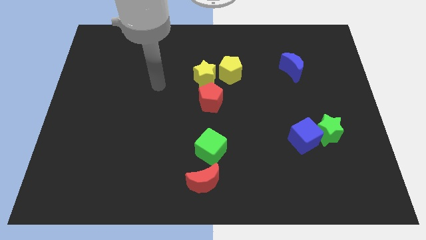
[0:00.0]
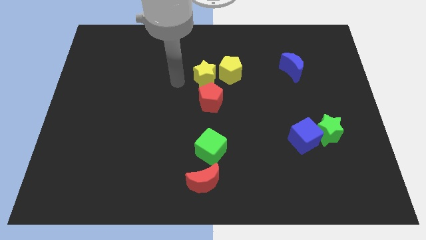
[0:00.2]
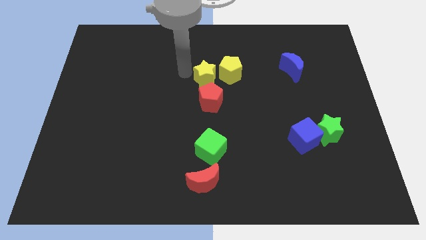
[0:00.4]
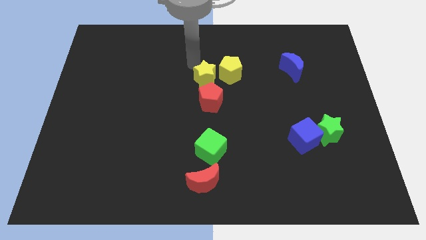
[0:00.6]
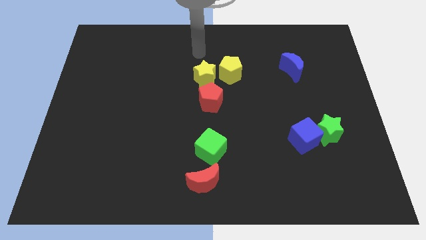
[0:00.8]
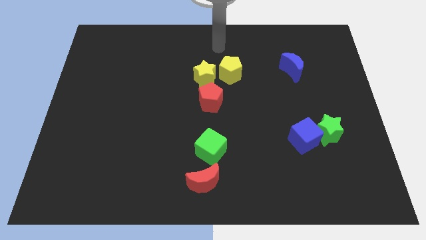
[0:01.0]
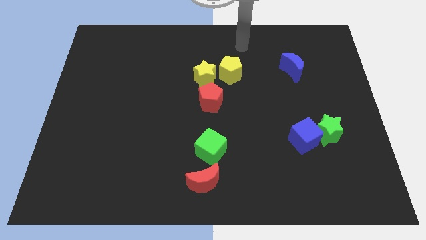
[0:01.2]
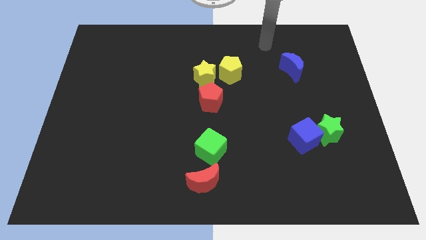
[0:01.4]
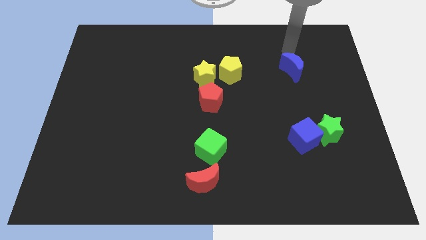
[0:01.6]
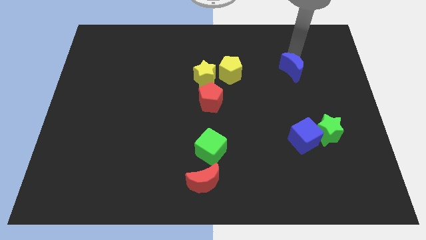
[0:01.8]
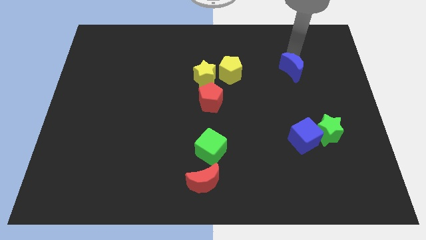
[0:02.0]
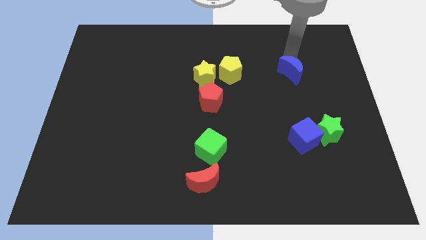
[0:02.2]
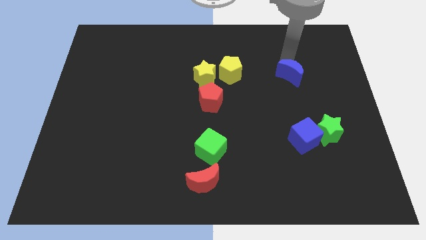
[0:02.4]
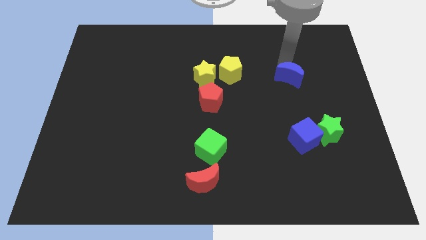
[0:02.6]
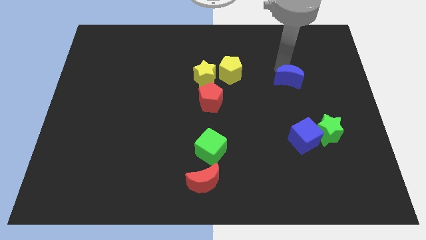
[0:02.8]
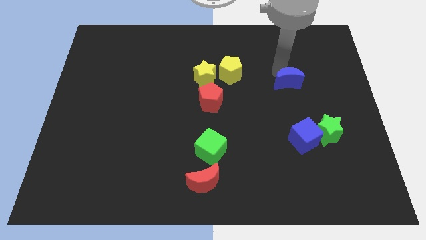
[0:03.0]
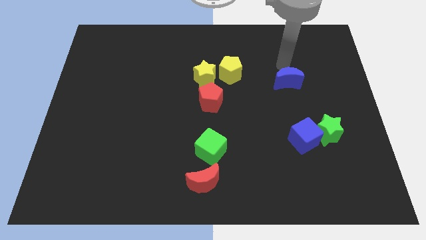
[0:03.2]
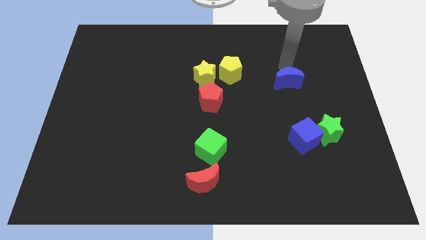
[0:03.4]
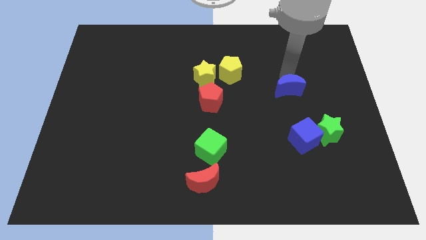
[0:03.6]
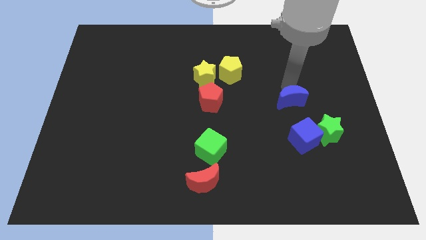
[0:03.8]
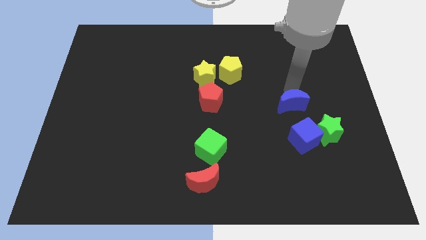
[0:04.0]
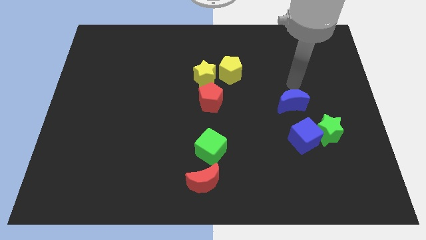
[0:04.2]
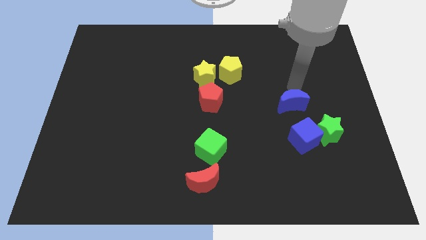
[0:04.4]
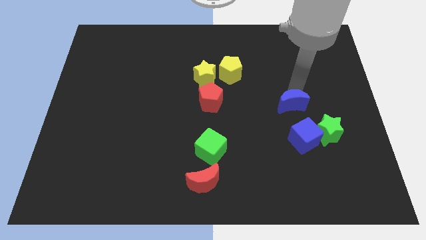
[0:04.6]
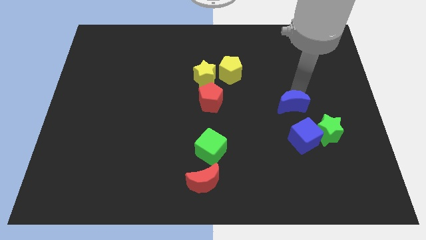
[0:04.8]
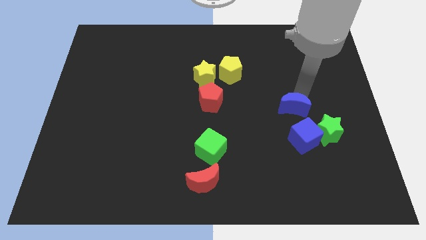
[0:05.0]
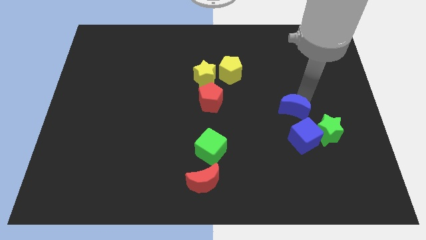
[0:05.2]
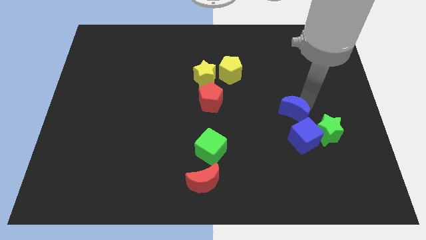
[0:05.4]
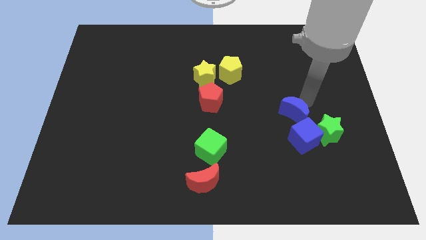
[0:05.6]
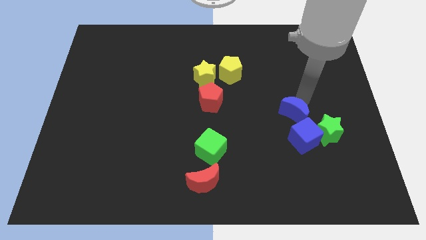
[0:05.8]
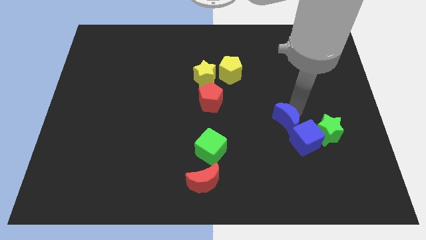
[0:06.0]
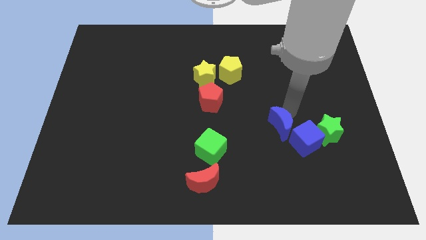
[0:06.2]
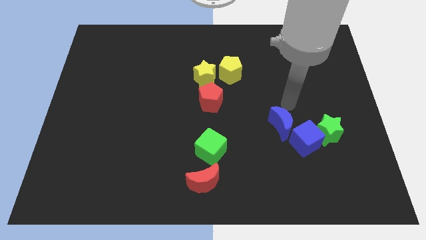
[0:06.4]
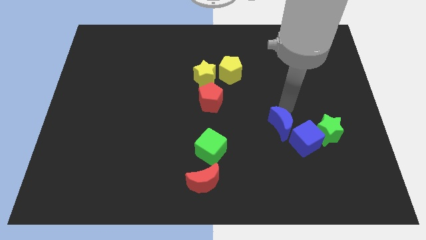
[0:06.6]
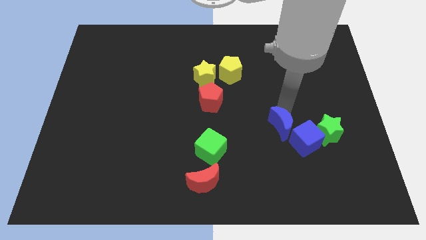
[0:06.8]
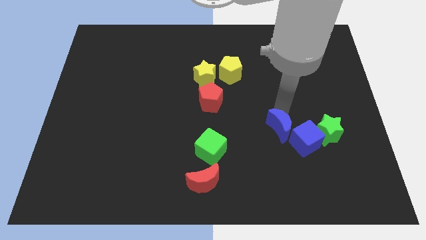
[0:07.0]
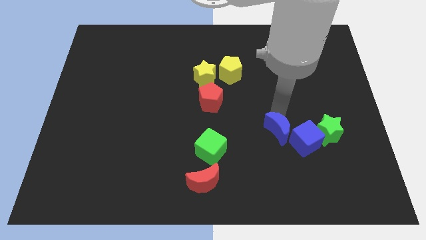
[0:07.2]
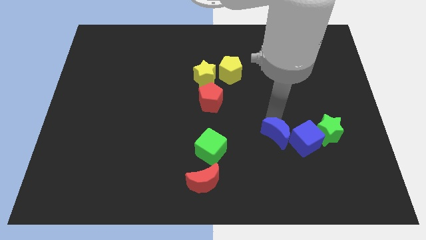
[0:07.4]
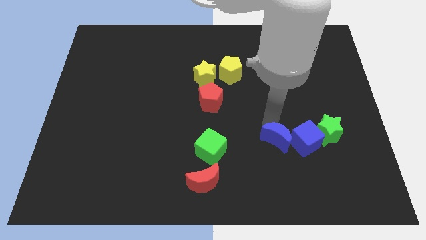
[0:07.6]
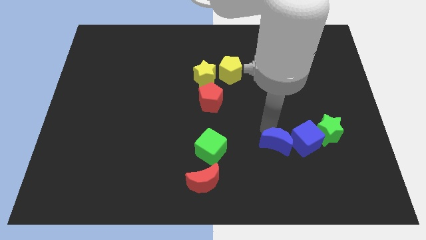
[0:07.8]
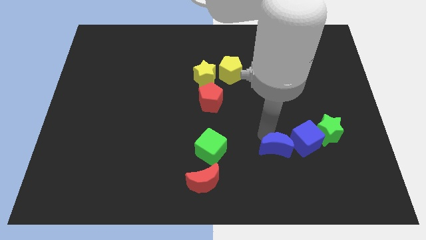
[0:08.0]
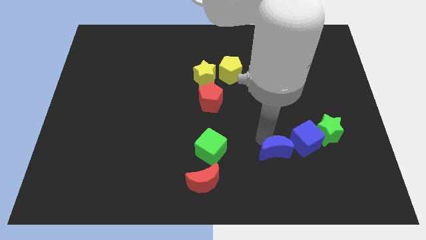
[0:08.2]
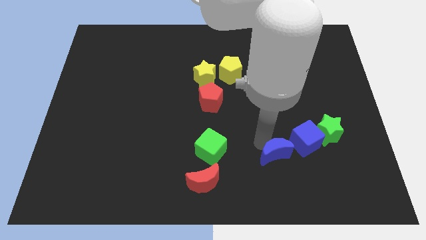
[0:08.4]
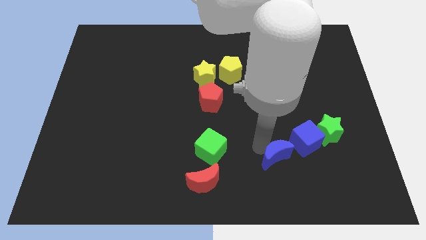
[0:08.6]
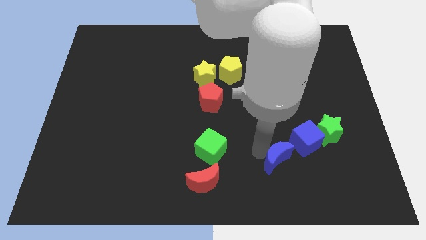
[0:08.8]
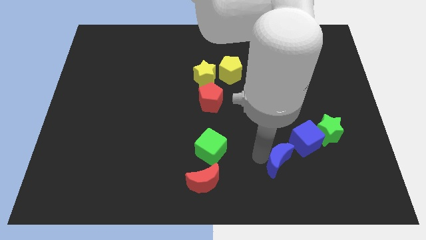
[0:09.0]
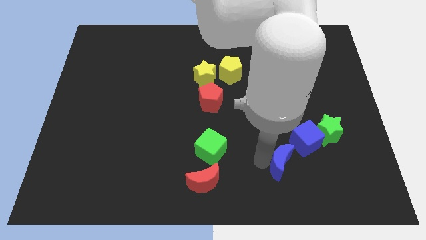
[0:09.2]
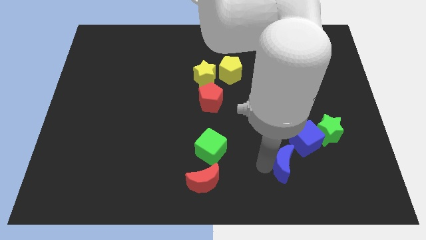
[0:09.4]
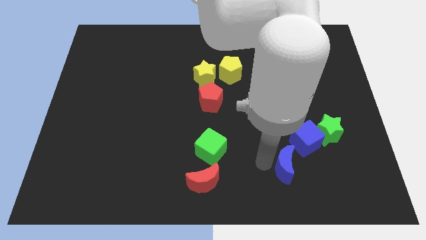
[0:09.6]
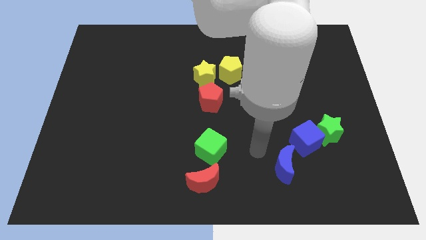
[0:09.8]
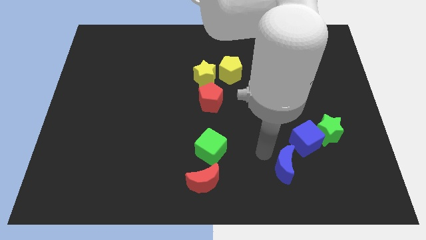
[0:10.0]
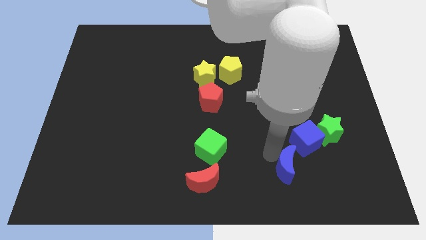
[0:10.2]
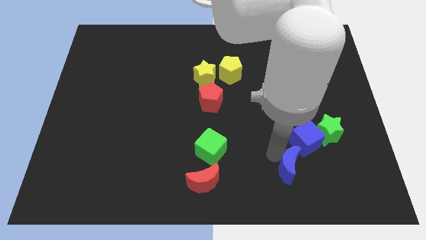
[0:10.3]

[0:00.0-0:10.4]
put the blue moon to the bottom of the blue cube

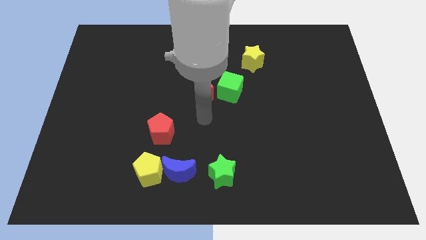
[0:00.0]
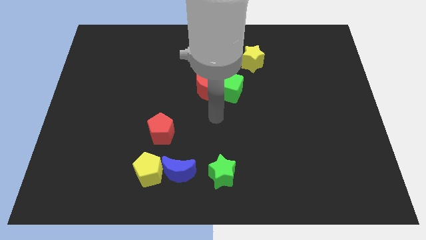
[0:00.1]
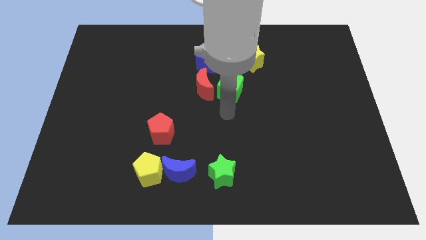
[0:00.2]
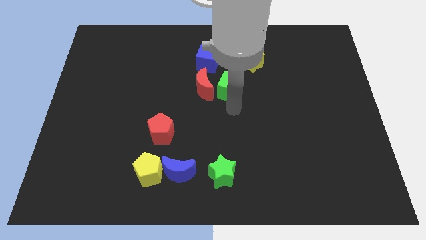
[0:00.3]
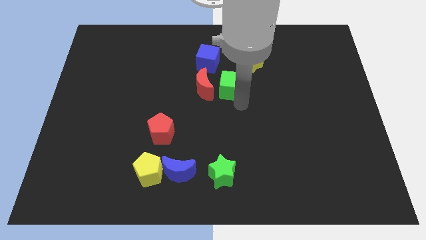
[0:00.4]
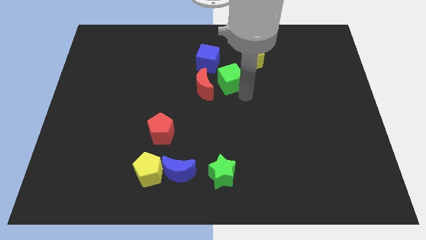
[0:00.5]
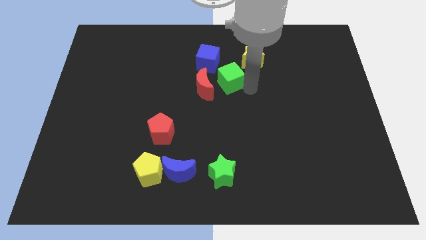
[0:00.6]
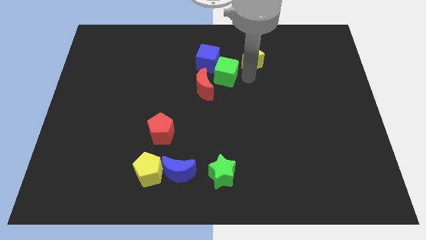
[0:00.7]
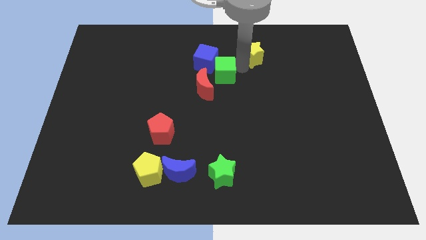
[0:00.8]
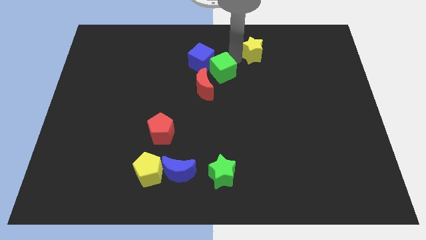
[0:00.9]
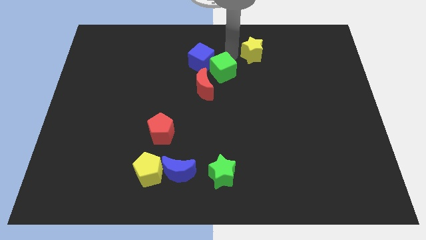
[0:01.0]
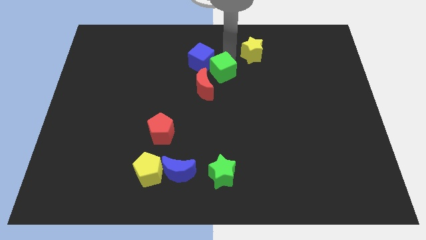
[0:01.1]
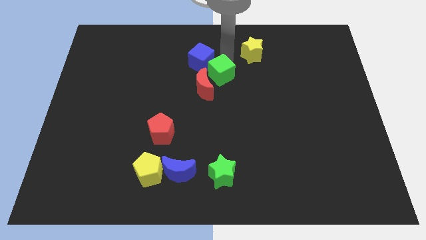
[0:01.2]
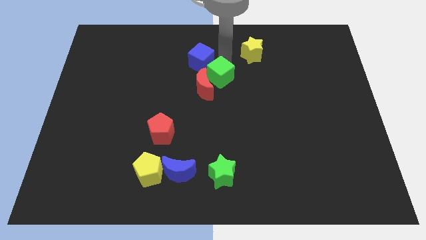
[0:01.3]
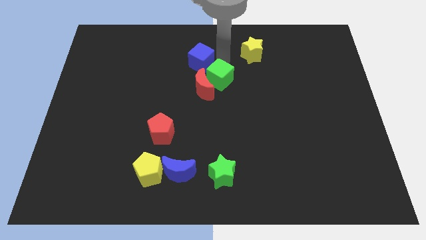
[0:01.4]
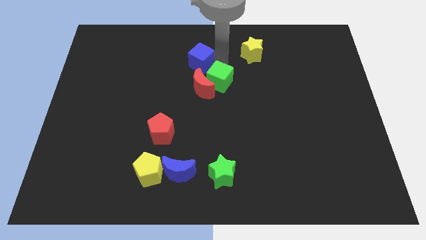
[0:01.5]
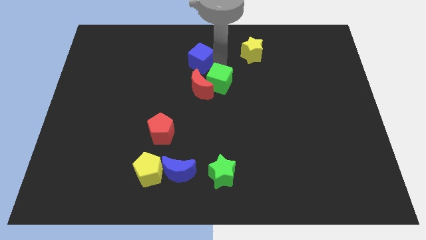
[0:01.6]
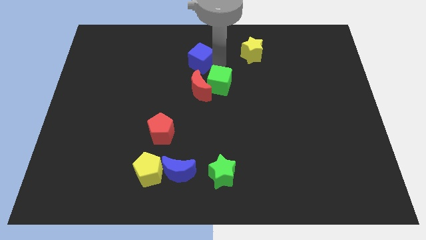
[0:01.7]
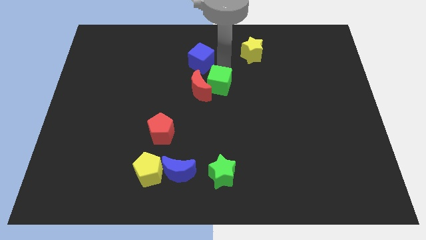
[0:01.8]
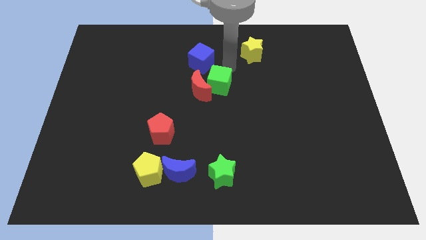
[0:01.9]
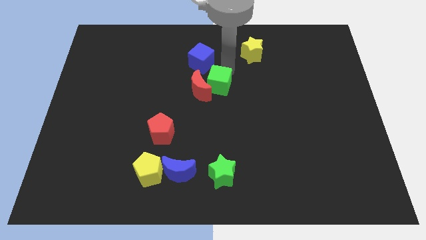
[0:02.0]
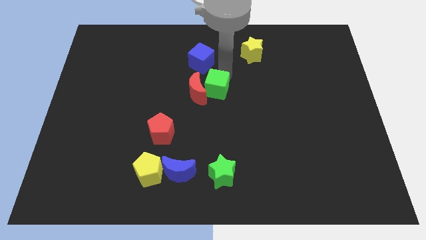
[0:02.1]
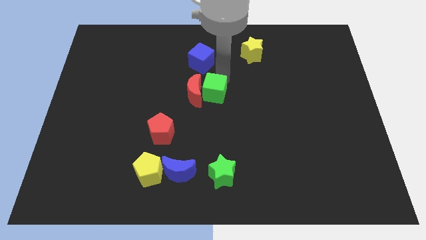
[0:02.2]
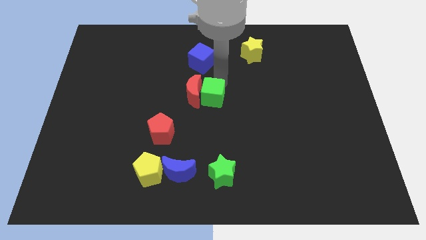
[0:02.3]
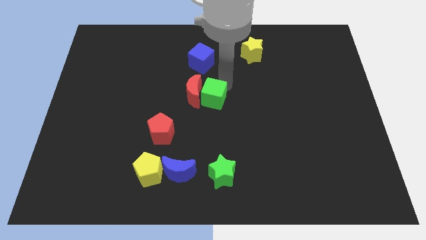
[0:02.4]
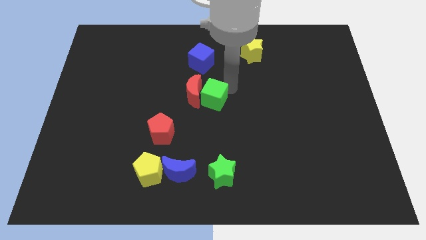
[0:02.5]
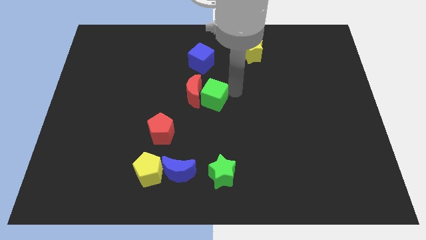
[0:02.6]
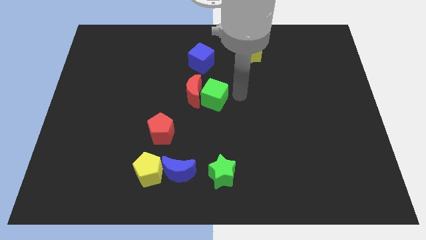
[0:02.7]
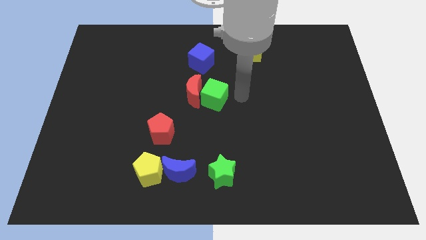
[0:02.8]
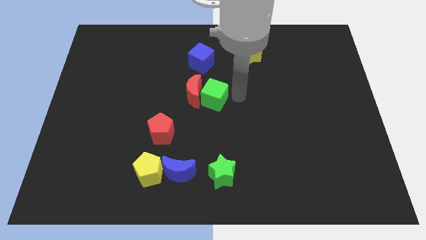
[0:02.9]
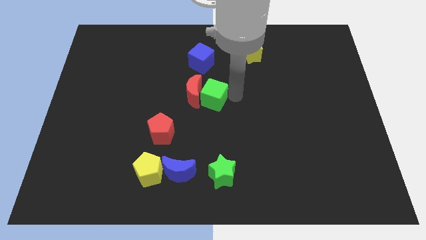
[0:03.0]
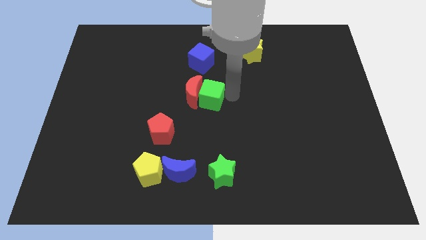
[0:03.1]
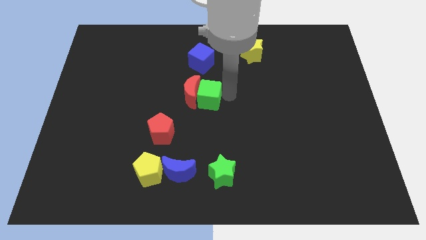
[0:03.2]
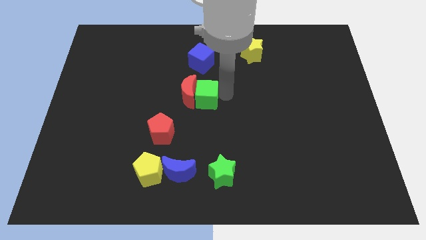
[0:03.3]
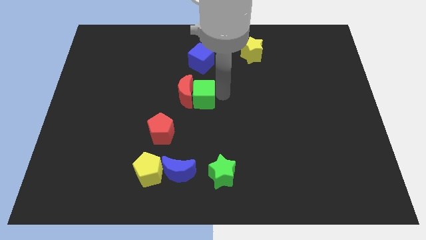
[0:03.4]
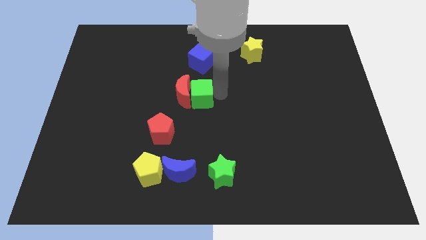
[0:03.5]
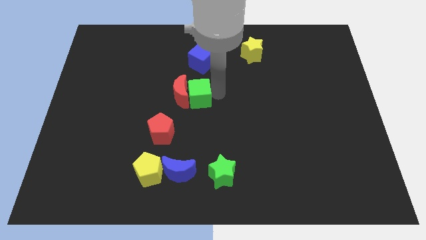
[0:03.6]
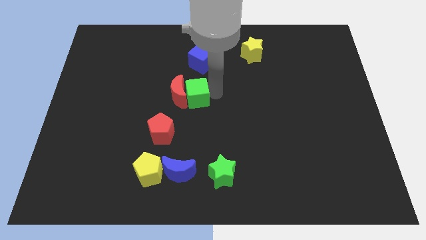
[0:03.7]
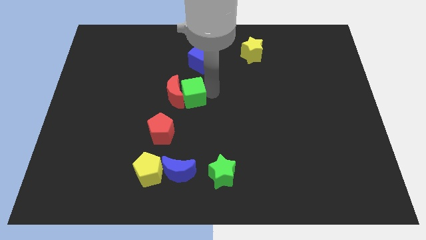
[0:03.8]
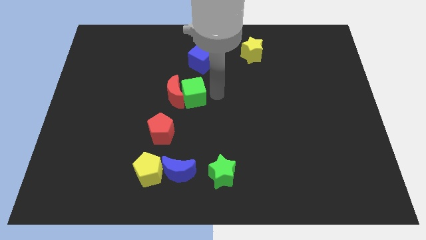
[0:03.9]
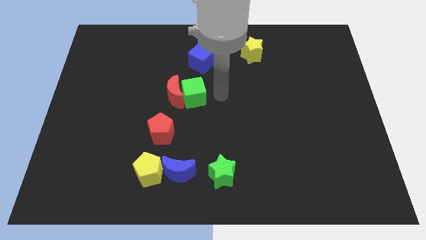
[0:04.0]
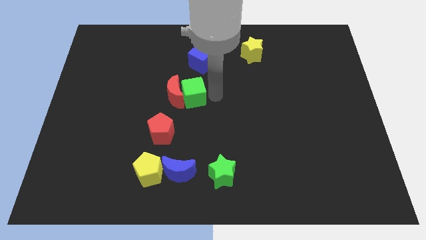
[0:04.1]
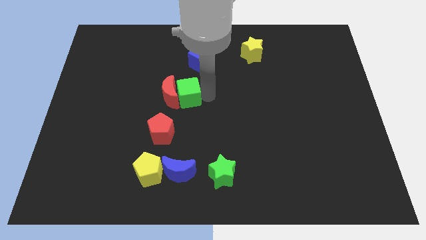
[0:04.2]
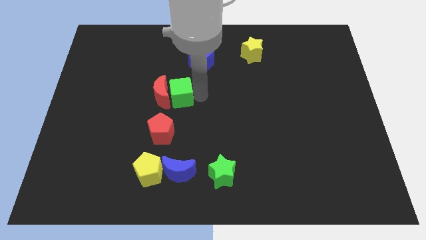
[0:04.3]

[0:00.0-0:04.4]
move the green cube above the red pentagon
